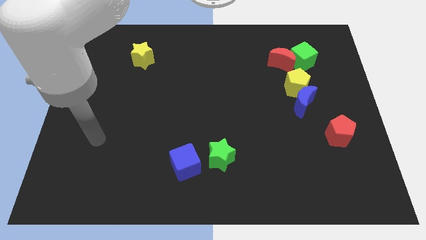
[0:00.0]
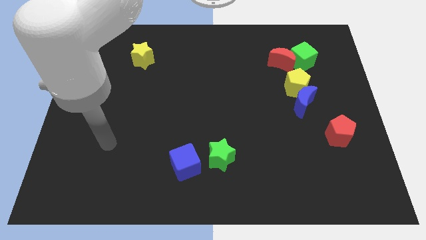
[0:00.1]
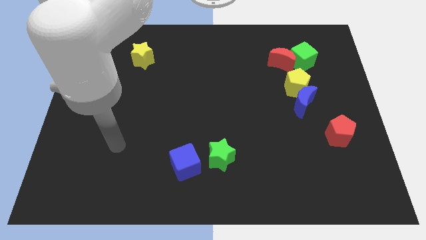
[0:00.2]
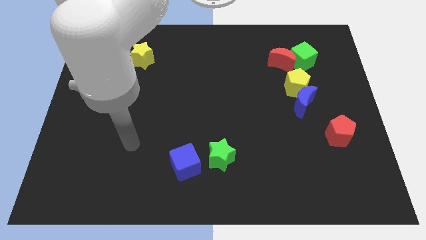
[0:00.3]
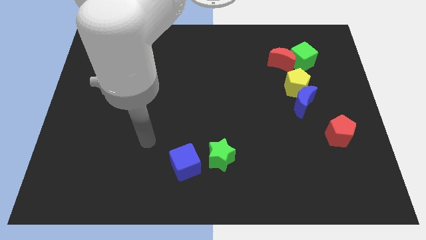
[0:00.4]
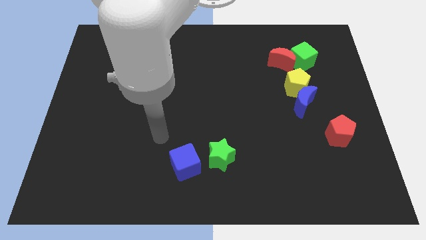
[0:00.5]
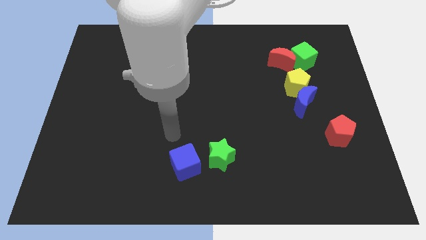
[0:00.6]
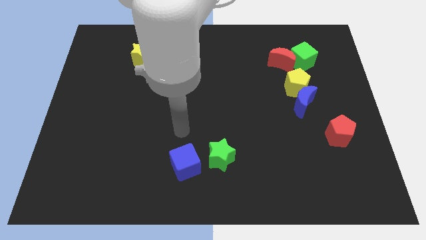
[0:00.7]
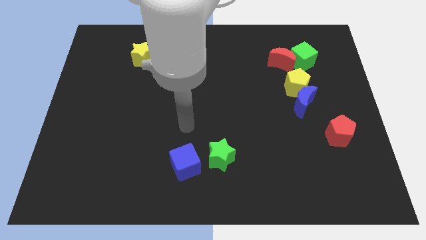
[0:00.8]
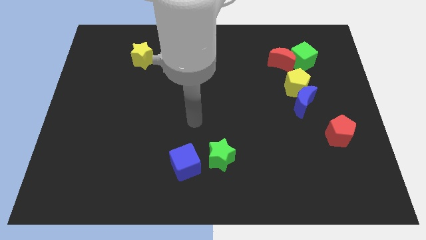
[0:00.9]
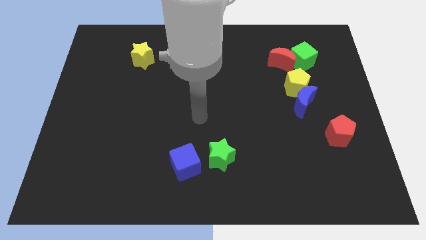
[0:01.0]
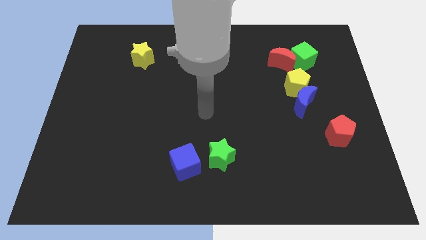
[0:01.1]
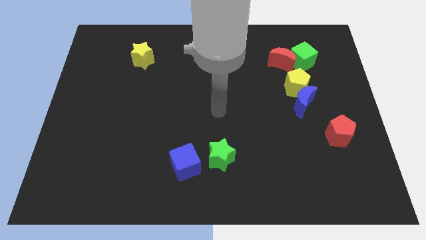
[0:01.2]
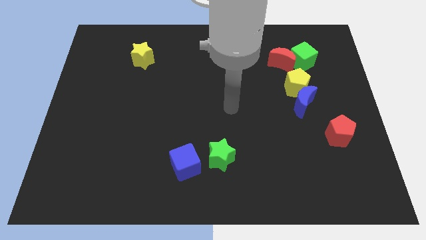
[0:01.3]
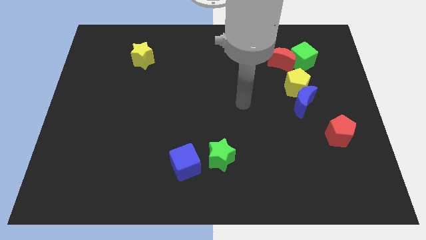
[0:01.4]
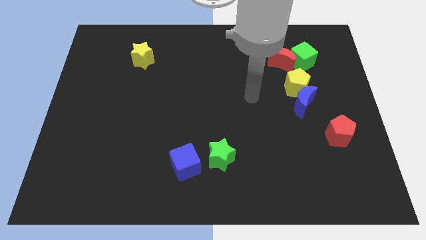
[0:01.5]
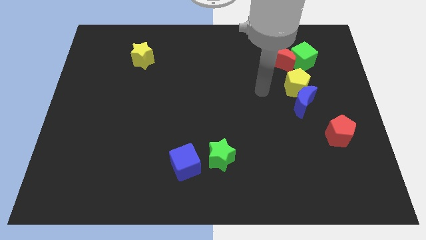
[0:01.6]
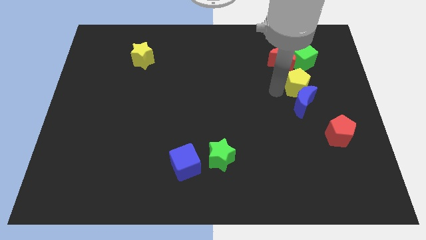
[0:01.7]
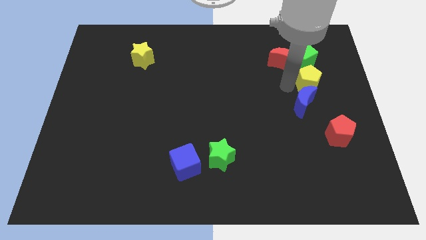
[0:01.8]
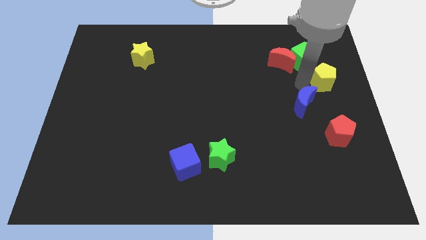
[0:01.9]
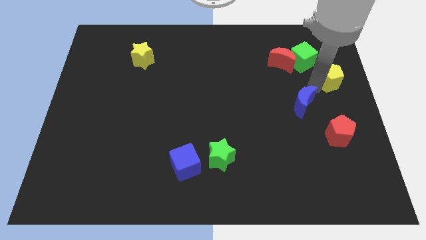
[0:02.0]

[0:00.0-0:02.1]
move the blue moon away from the yellow pentagon

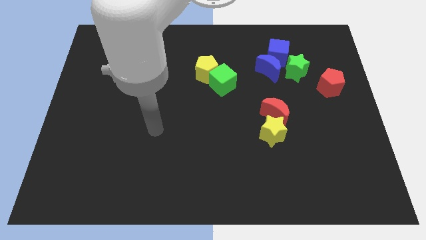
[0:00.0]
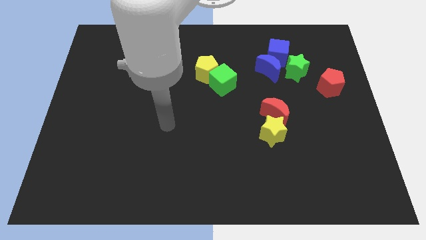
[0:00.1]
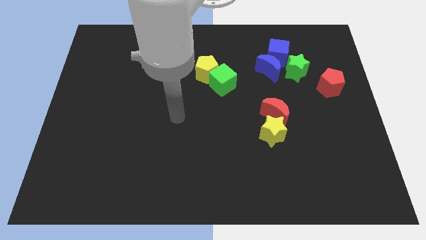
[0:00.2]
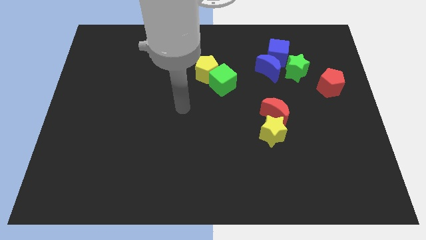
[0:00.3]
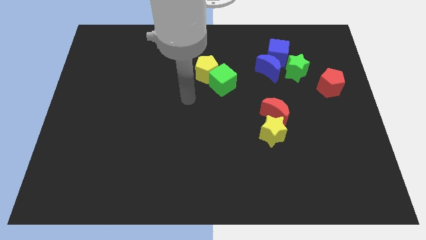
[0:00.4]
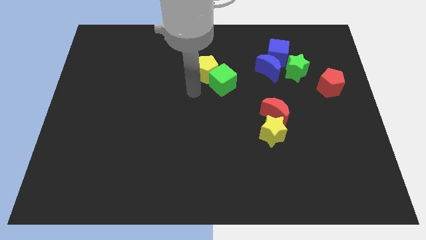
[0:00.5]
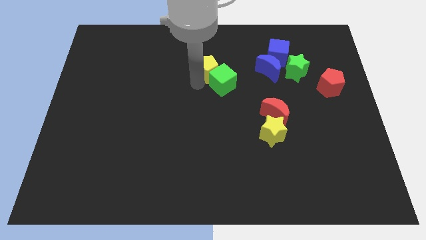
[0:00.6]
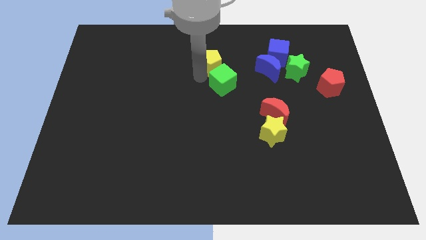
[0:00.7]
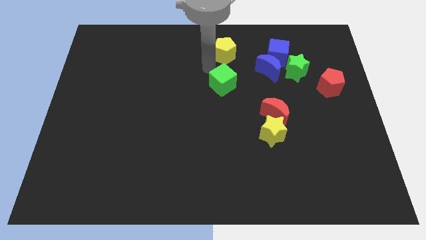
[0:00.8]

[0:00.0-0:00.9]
separate the green cube from the yellow pentagon

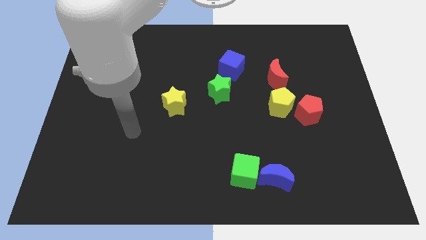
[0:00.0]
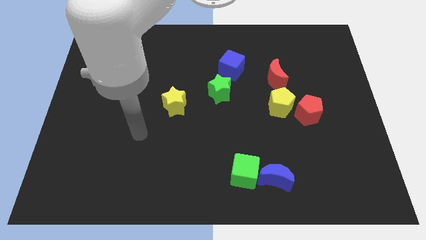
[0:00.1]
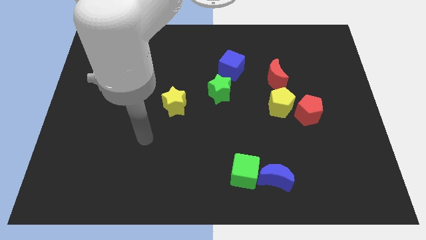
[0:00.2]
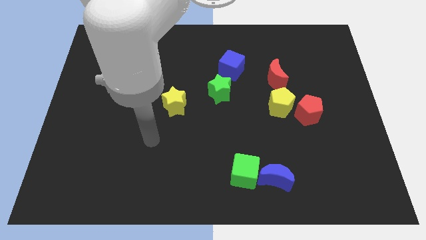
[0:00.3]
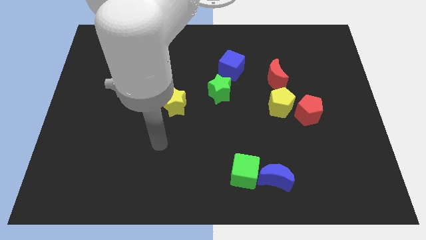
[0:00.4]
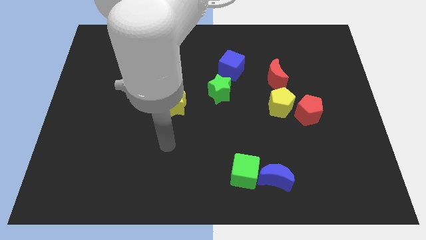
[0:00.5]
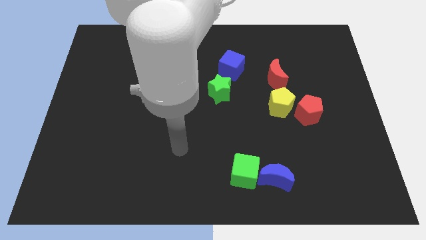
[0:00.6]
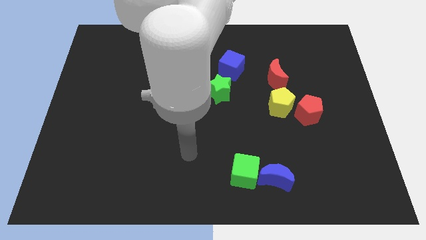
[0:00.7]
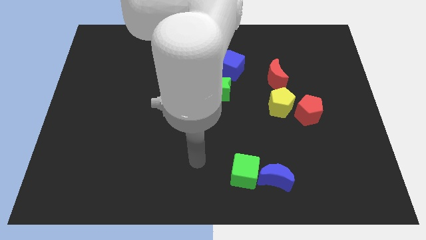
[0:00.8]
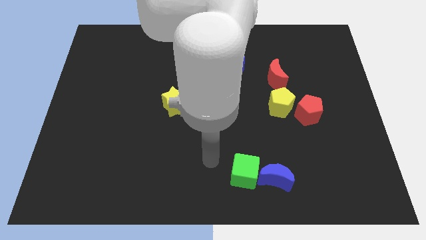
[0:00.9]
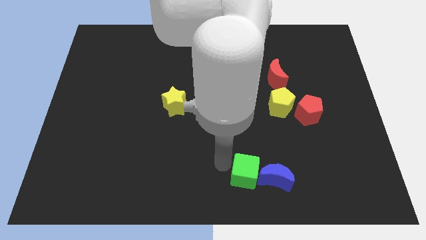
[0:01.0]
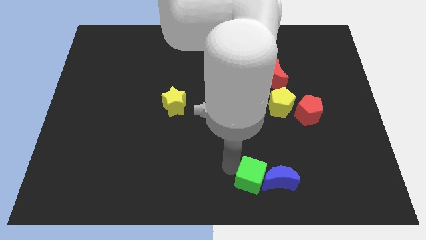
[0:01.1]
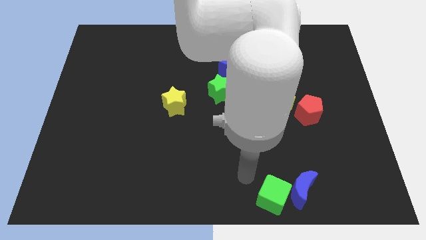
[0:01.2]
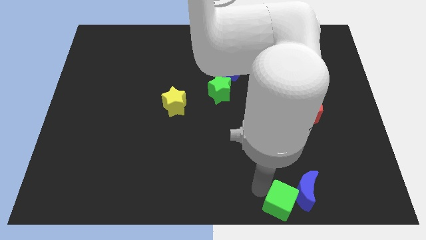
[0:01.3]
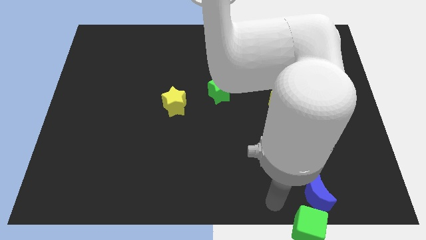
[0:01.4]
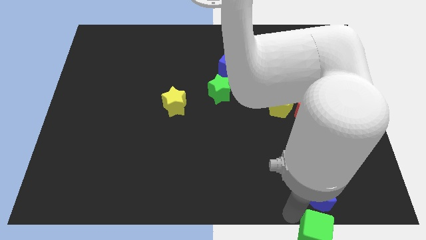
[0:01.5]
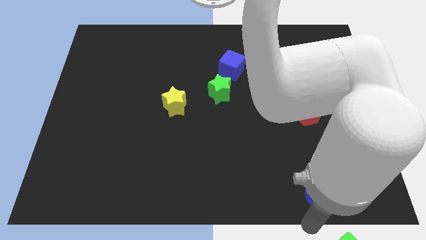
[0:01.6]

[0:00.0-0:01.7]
move the blue moon away from the green cube

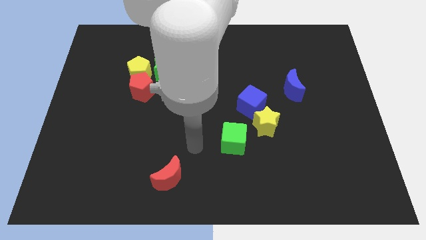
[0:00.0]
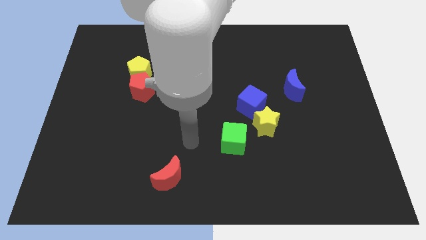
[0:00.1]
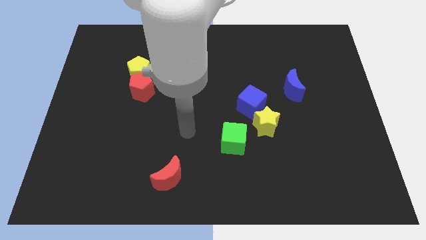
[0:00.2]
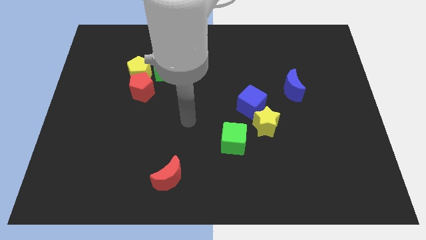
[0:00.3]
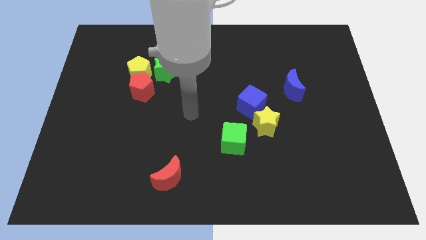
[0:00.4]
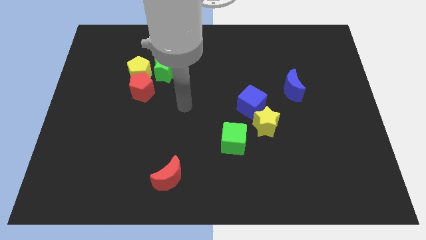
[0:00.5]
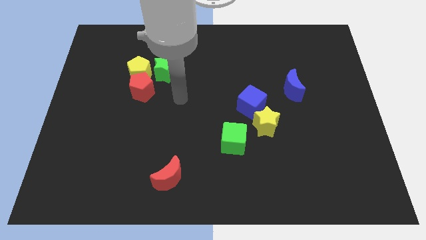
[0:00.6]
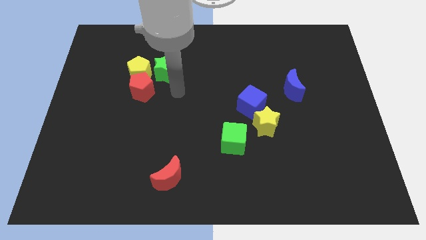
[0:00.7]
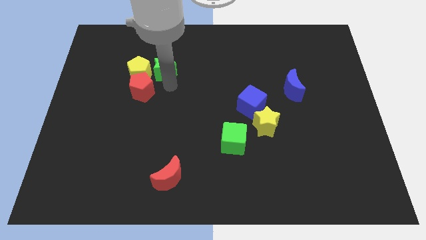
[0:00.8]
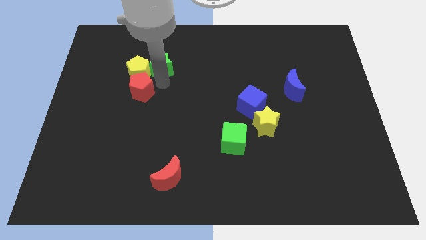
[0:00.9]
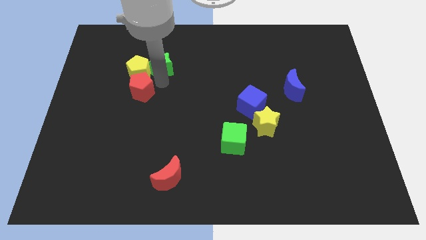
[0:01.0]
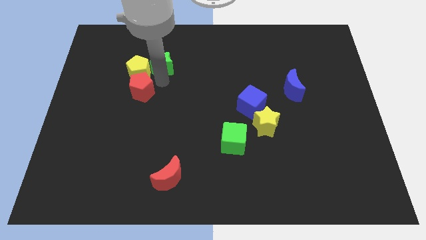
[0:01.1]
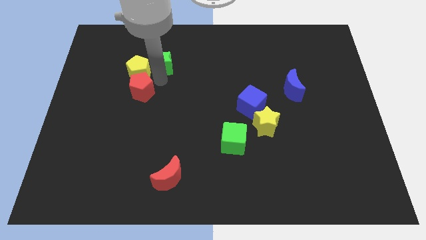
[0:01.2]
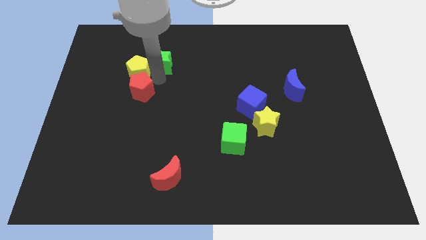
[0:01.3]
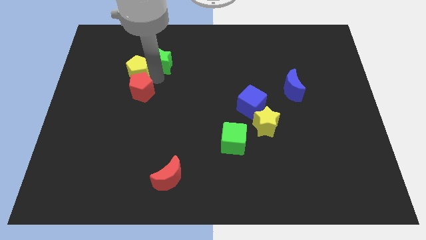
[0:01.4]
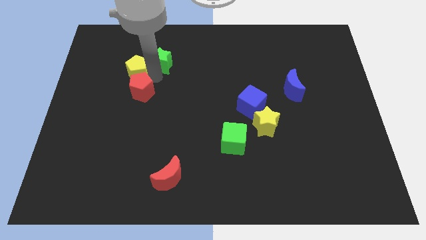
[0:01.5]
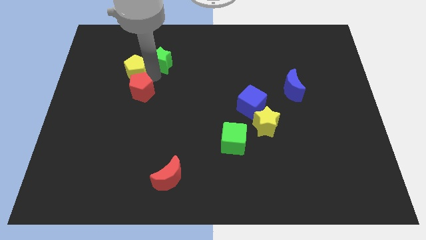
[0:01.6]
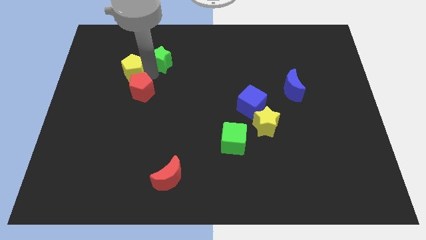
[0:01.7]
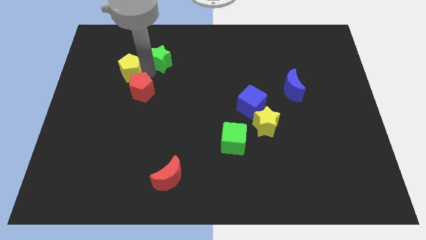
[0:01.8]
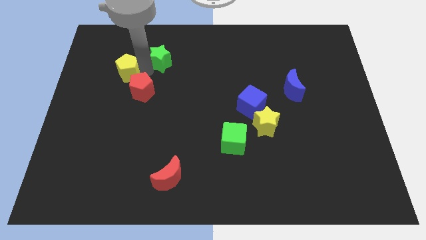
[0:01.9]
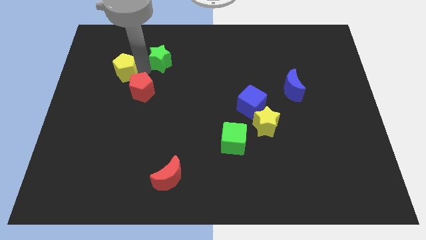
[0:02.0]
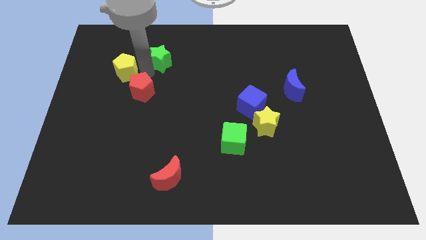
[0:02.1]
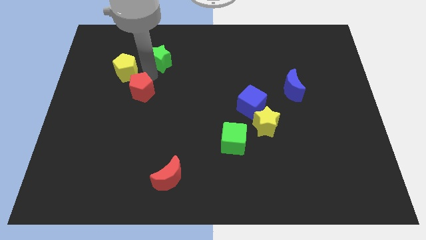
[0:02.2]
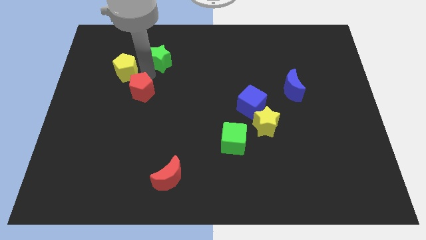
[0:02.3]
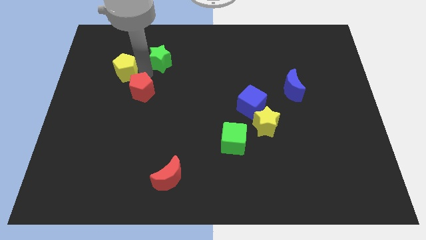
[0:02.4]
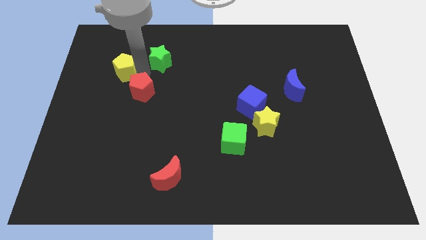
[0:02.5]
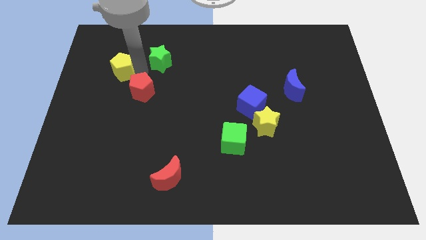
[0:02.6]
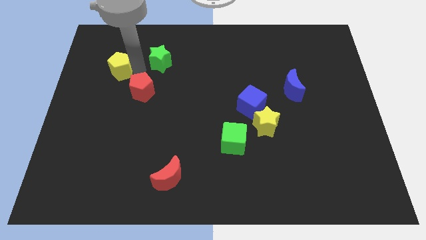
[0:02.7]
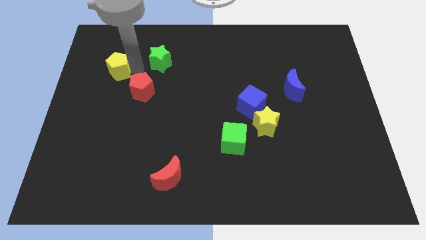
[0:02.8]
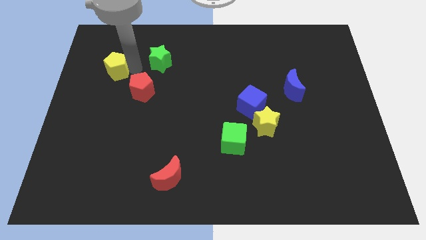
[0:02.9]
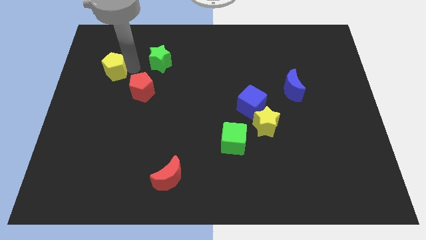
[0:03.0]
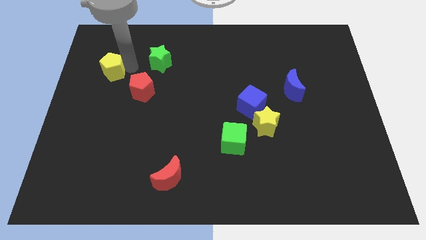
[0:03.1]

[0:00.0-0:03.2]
separate the yellow pentagon from the red pentagon and green star

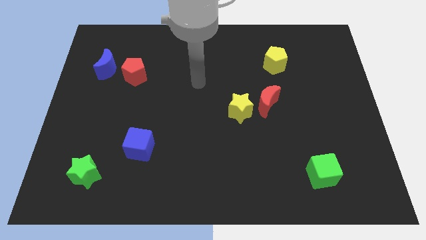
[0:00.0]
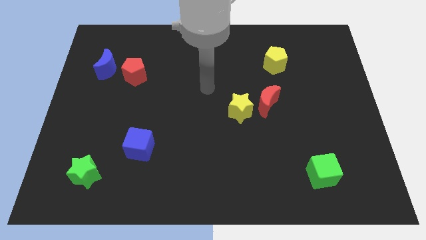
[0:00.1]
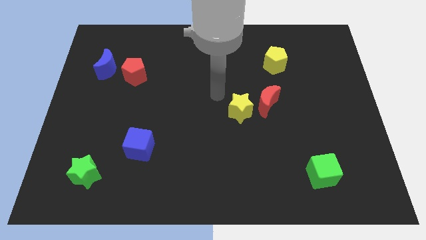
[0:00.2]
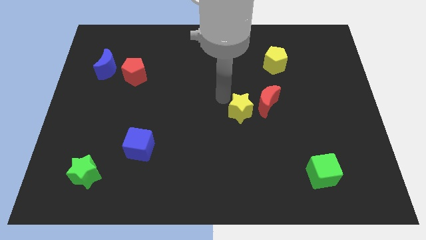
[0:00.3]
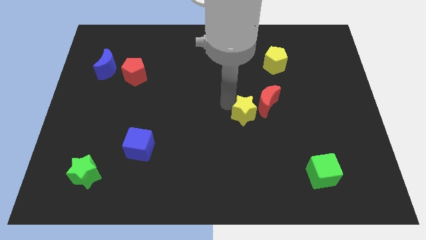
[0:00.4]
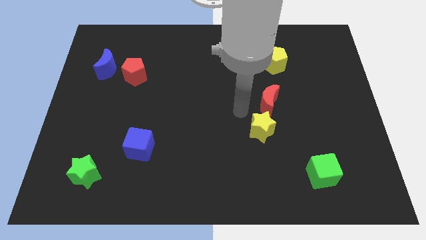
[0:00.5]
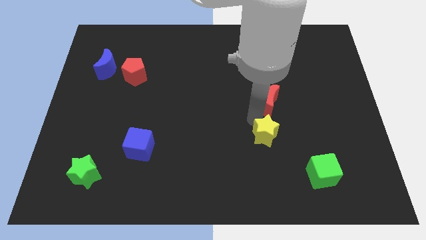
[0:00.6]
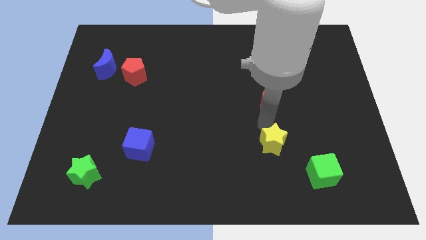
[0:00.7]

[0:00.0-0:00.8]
pull the red moon apart from the yellow star

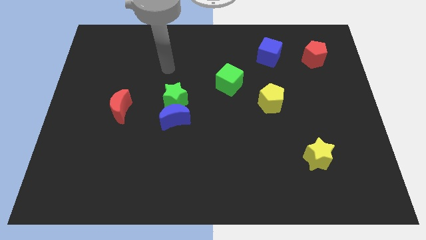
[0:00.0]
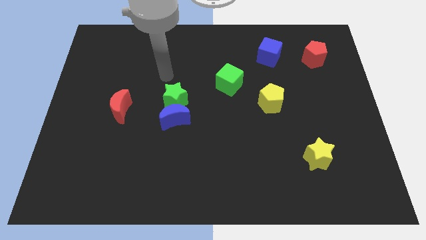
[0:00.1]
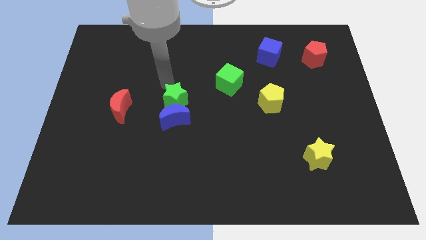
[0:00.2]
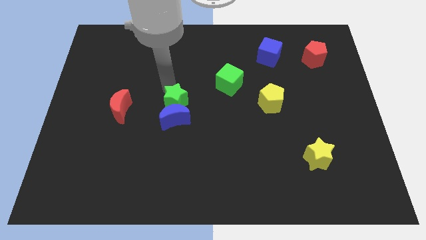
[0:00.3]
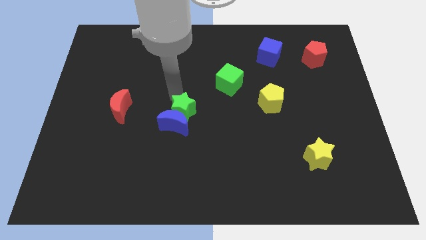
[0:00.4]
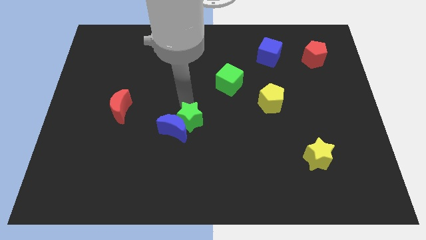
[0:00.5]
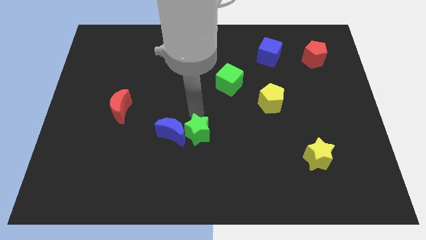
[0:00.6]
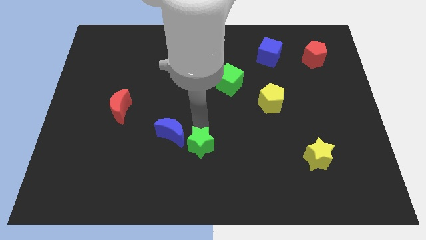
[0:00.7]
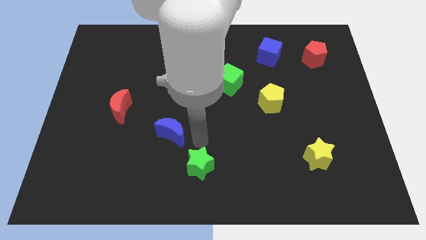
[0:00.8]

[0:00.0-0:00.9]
pull the blue moon apart from the green star
